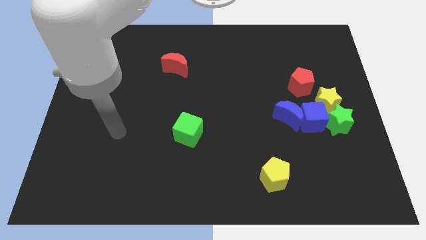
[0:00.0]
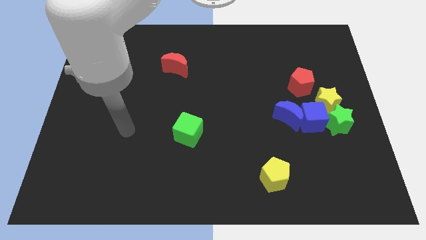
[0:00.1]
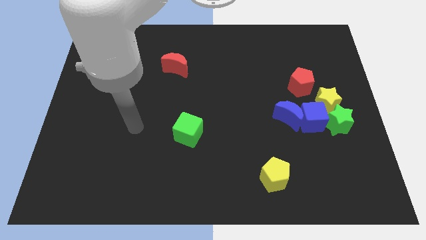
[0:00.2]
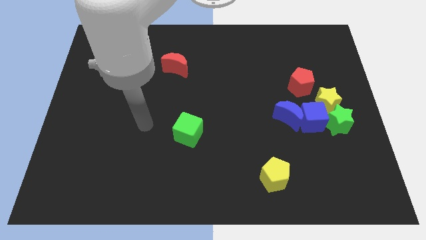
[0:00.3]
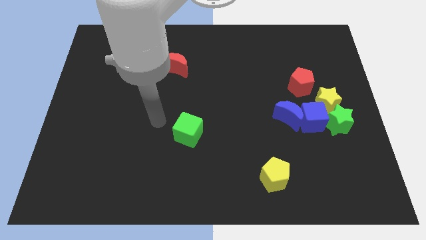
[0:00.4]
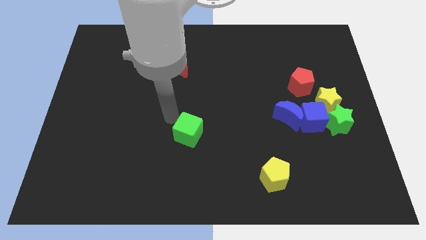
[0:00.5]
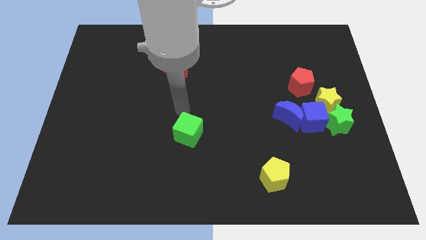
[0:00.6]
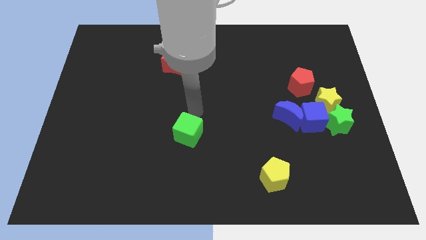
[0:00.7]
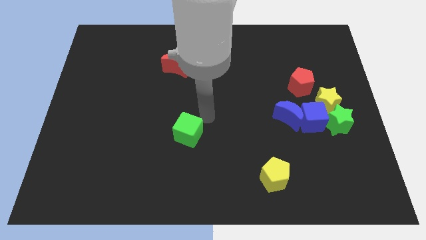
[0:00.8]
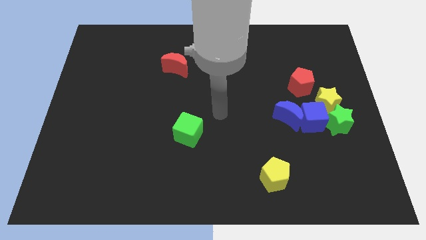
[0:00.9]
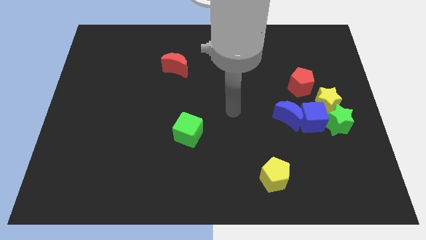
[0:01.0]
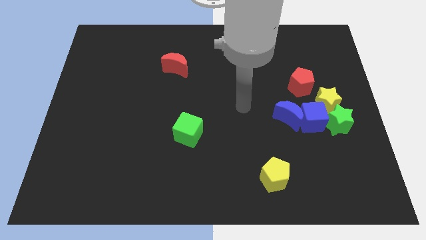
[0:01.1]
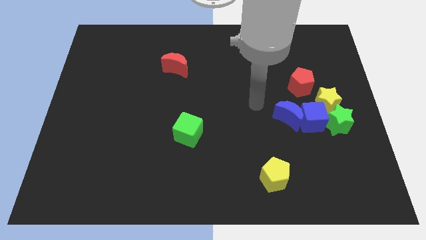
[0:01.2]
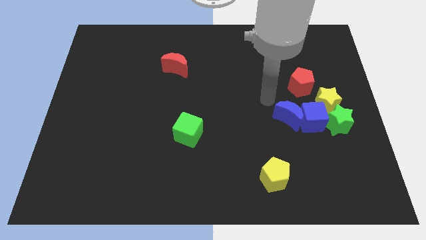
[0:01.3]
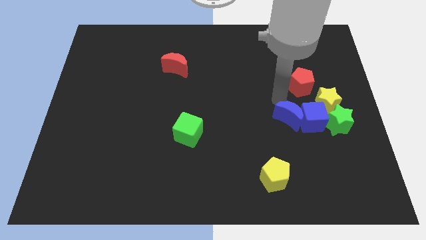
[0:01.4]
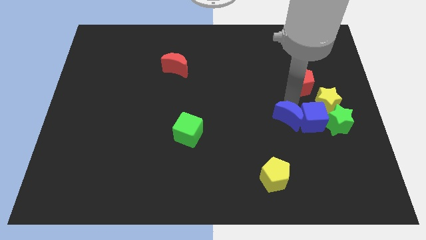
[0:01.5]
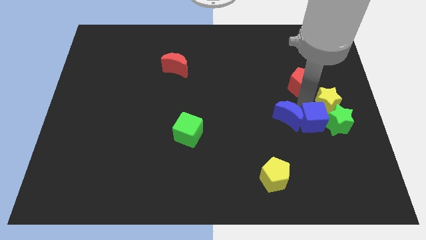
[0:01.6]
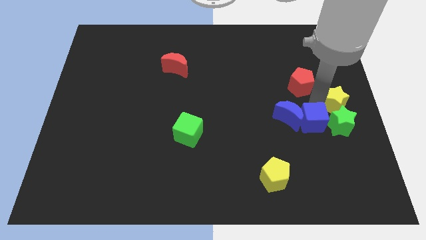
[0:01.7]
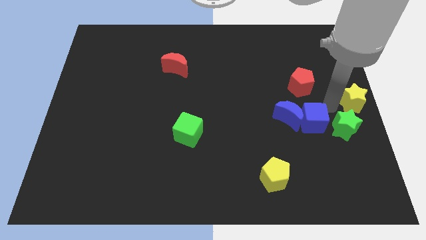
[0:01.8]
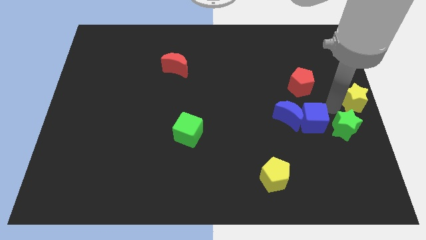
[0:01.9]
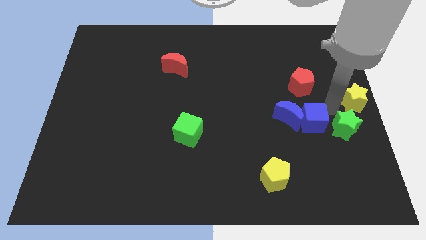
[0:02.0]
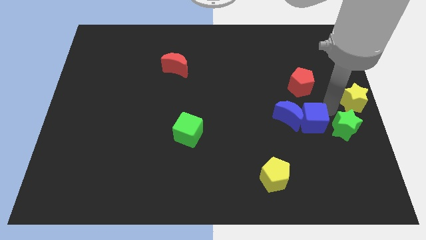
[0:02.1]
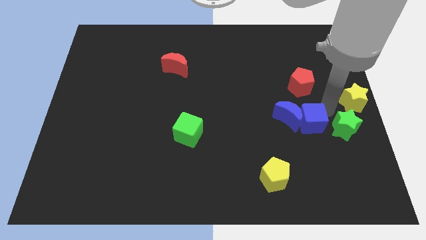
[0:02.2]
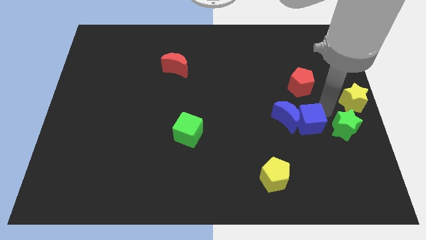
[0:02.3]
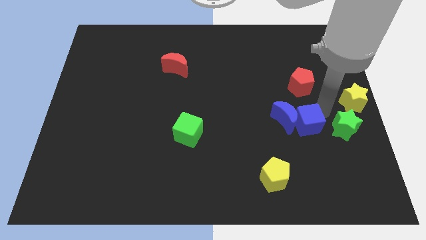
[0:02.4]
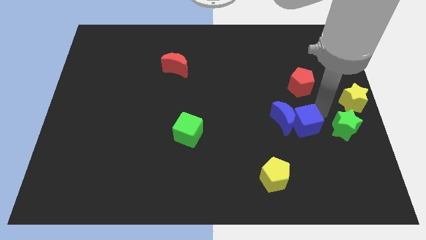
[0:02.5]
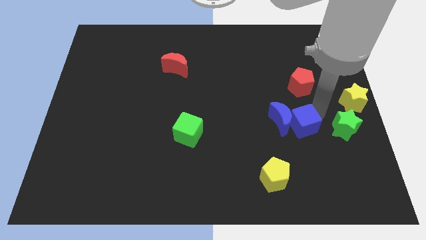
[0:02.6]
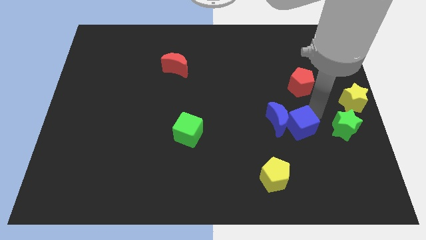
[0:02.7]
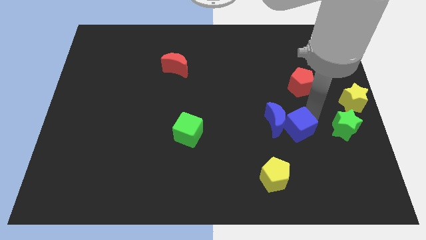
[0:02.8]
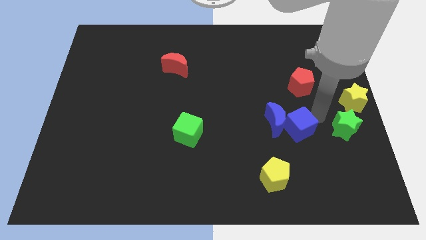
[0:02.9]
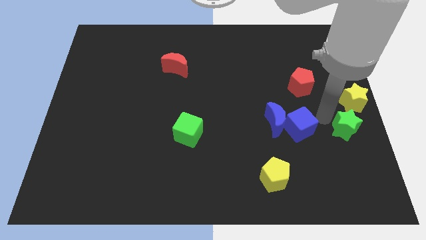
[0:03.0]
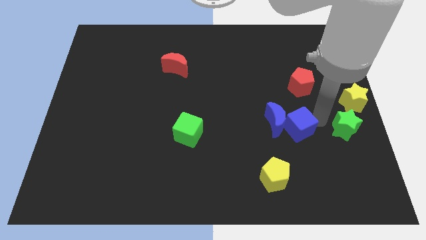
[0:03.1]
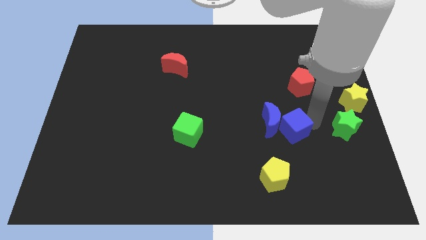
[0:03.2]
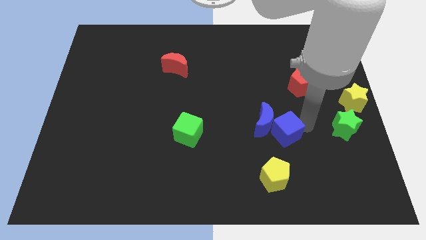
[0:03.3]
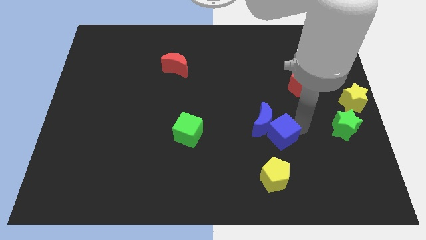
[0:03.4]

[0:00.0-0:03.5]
move the blue cube away from the clump

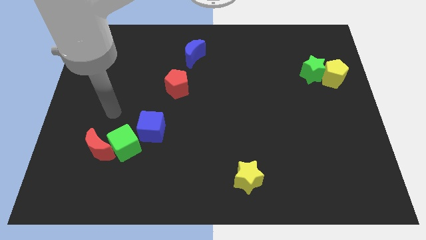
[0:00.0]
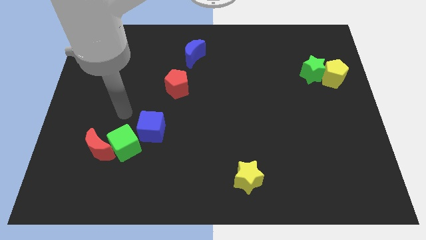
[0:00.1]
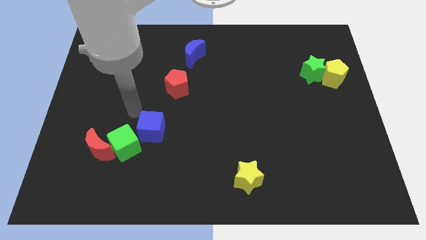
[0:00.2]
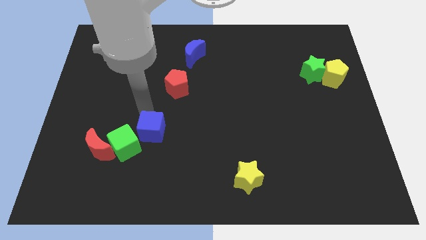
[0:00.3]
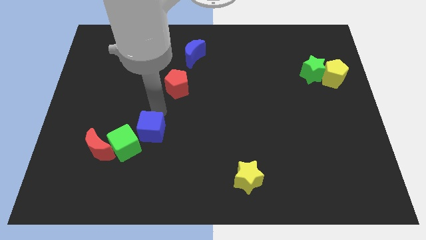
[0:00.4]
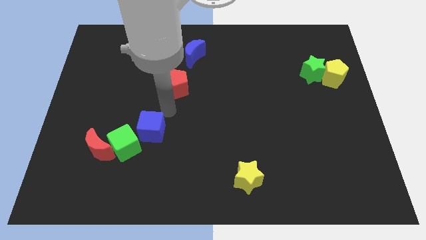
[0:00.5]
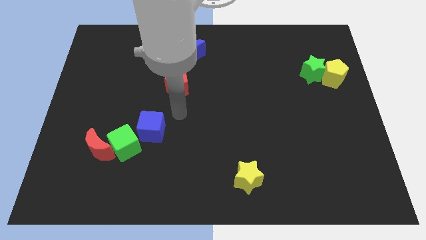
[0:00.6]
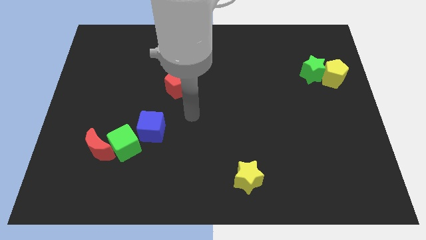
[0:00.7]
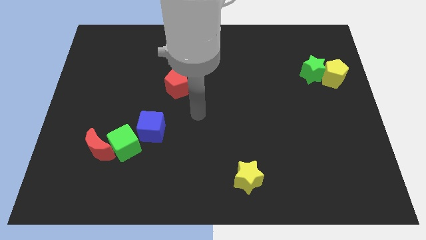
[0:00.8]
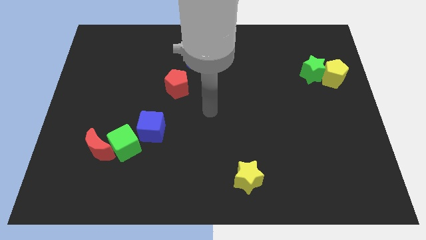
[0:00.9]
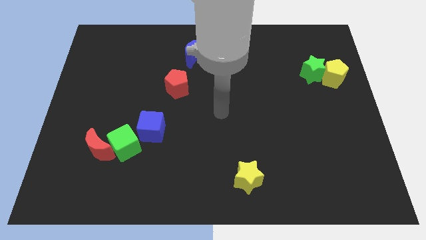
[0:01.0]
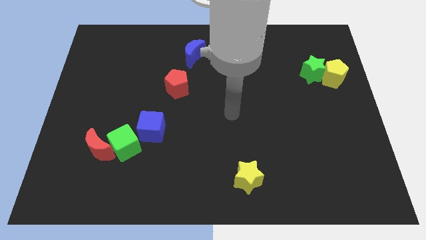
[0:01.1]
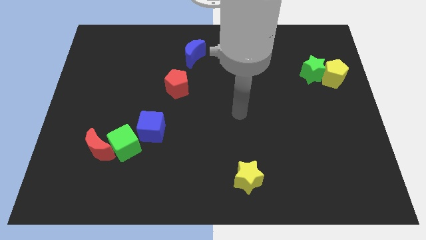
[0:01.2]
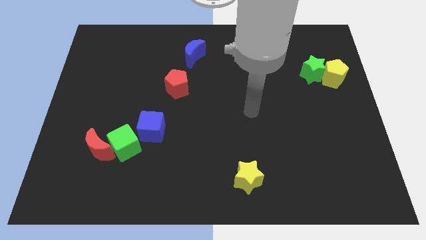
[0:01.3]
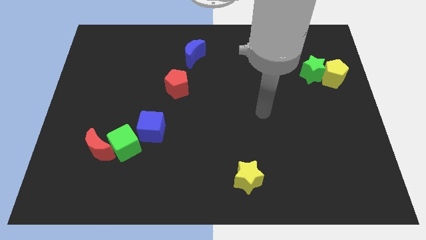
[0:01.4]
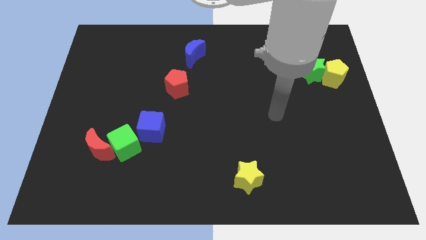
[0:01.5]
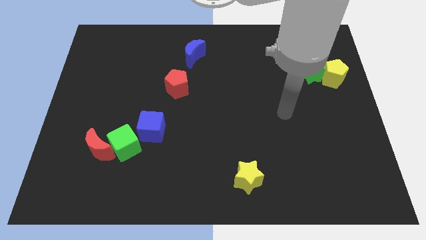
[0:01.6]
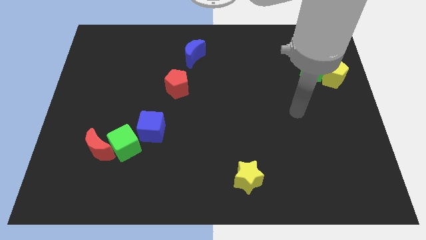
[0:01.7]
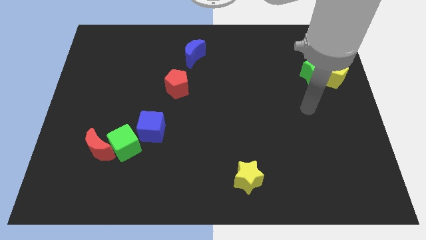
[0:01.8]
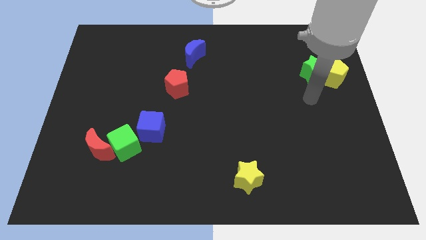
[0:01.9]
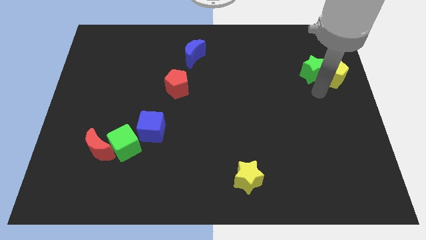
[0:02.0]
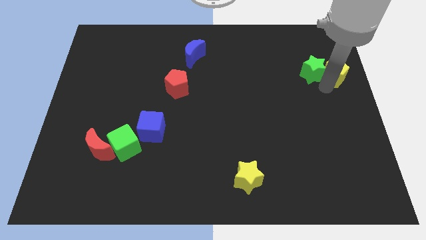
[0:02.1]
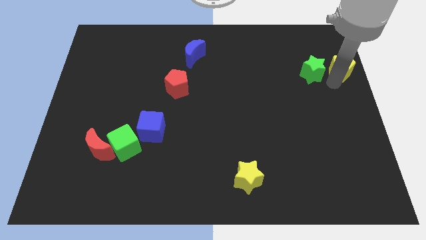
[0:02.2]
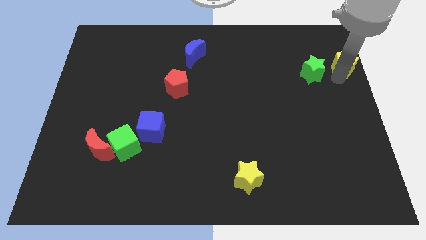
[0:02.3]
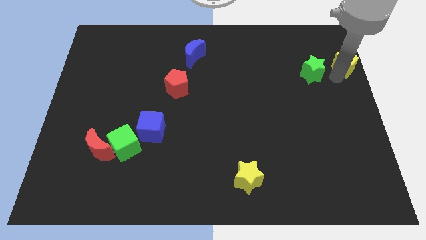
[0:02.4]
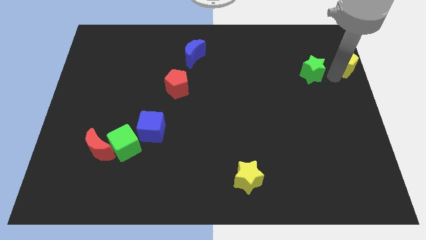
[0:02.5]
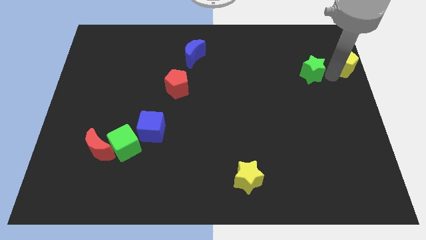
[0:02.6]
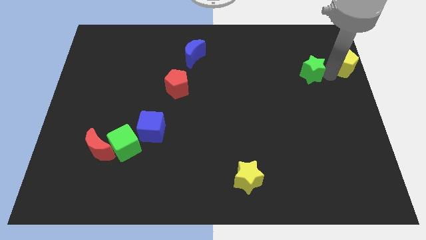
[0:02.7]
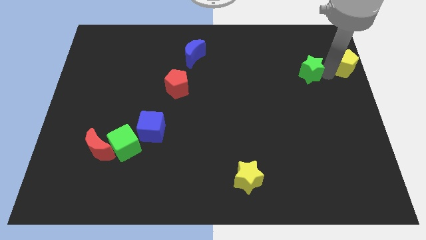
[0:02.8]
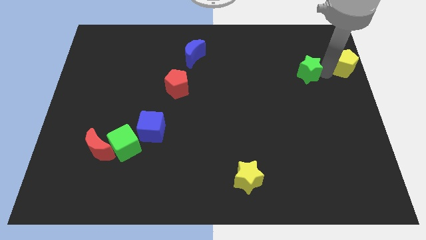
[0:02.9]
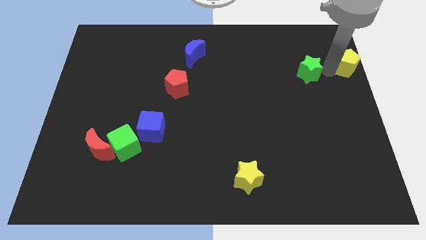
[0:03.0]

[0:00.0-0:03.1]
pull the green star apart from the yellow pentagon

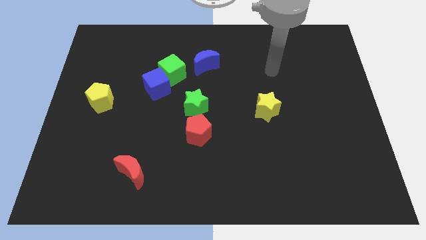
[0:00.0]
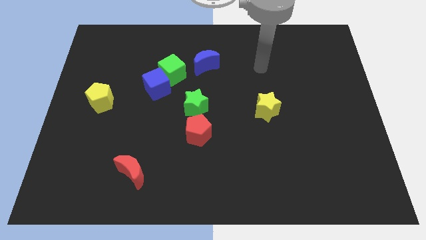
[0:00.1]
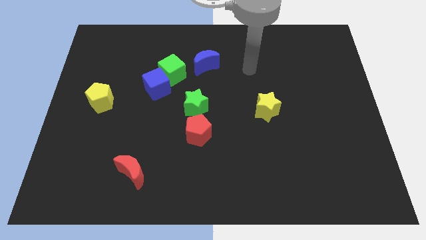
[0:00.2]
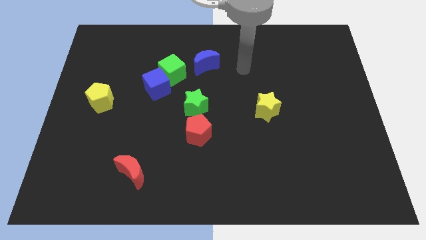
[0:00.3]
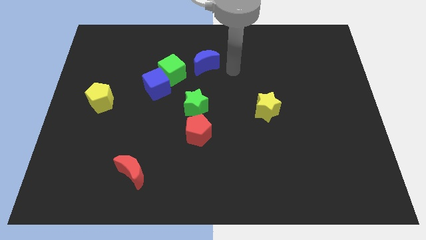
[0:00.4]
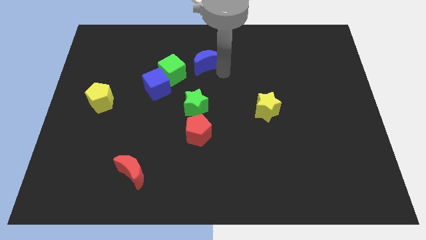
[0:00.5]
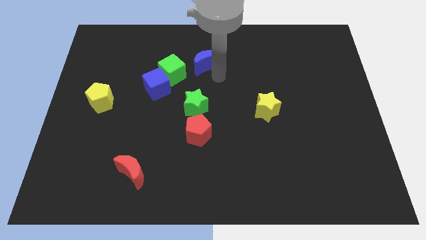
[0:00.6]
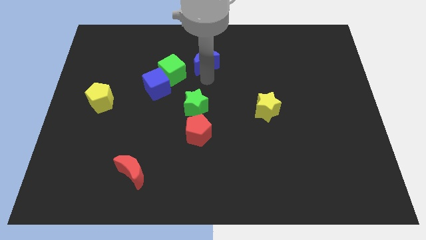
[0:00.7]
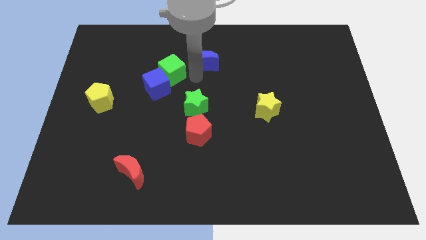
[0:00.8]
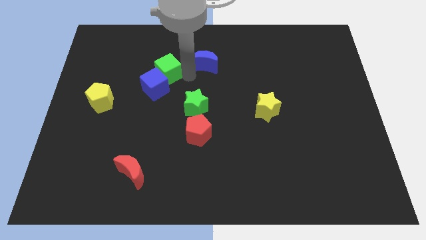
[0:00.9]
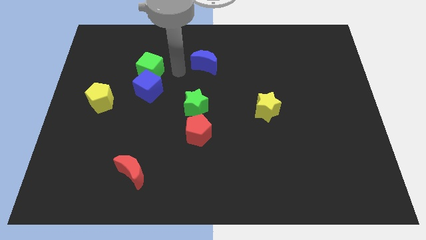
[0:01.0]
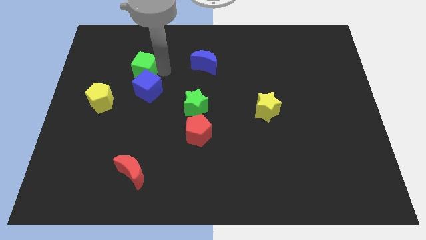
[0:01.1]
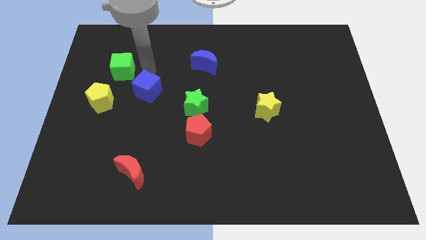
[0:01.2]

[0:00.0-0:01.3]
pull the blue cube apart from the green cube

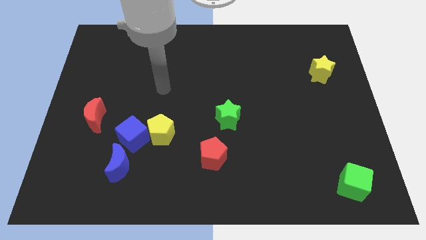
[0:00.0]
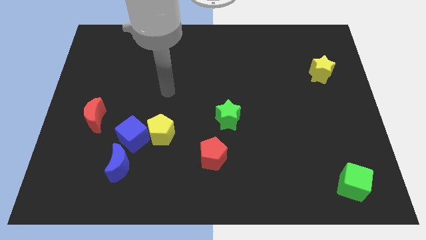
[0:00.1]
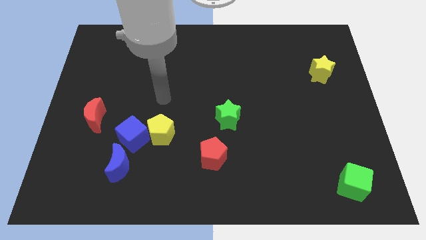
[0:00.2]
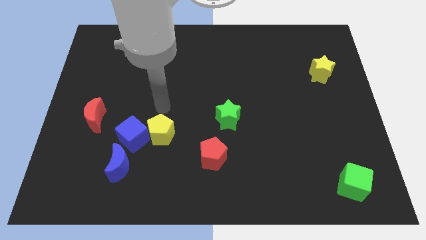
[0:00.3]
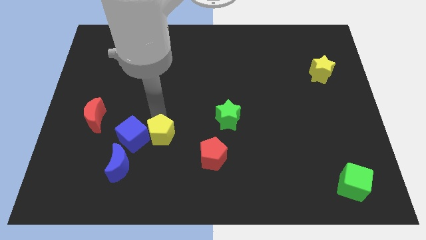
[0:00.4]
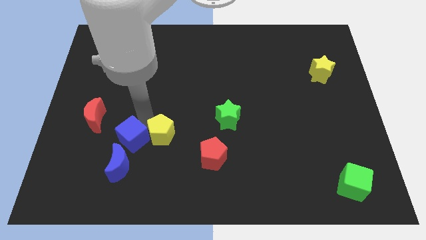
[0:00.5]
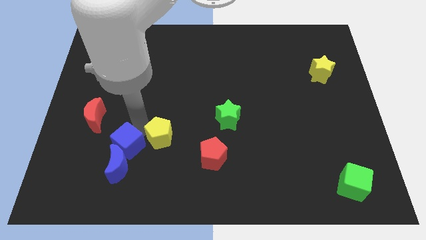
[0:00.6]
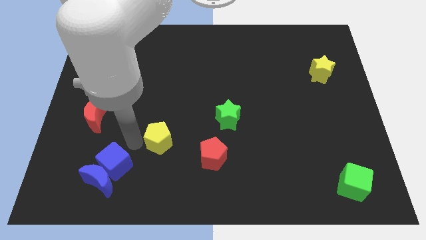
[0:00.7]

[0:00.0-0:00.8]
pull the yellow pentagon apart from the blue cube

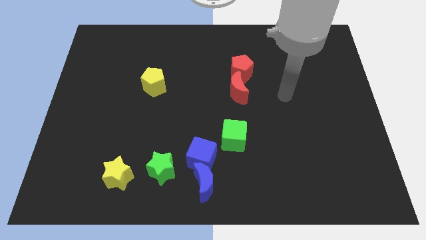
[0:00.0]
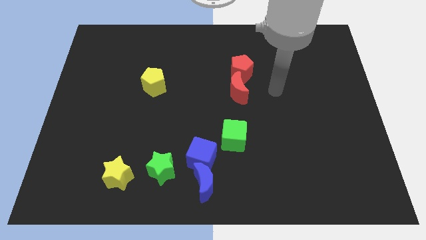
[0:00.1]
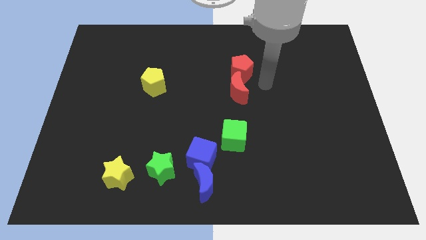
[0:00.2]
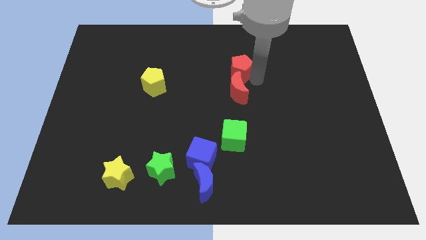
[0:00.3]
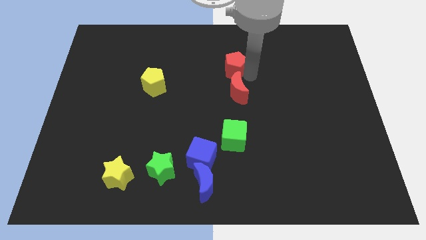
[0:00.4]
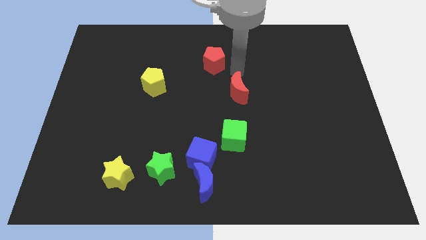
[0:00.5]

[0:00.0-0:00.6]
separate the red moon from the red pentagon
